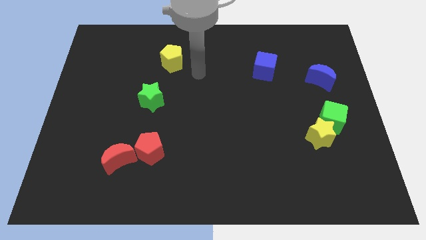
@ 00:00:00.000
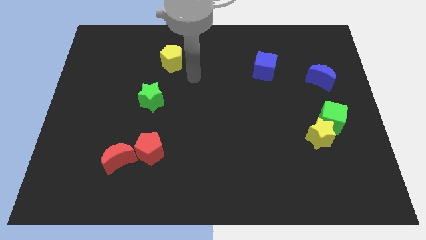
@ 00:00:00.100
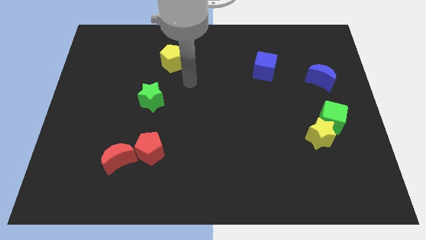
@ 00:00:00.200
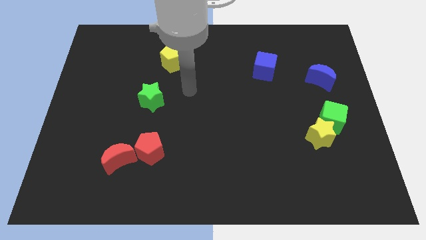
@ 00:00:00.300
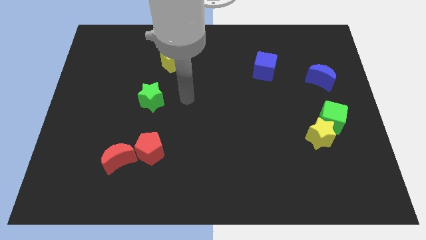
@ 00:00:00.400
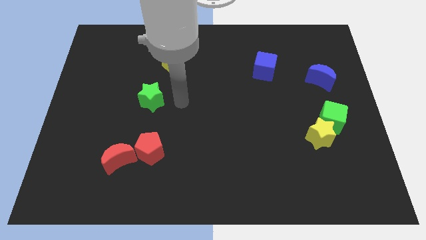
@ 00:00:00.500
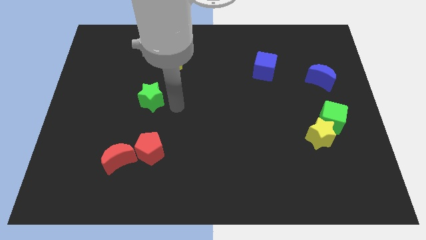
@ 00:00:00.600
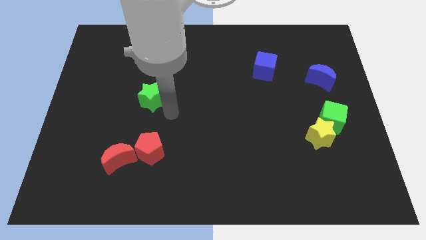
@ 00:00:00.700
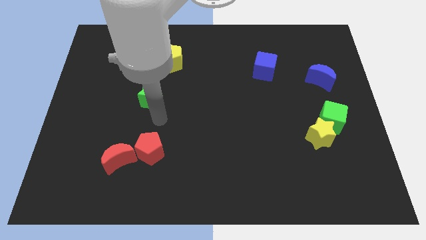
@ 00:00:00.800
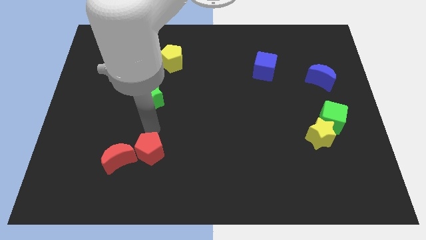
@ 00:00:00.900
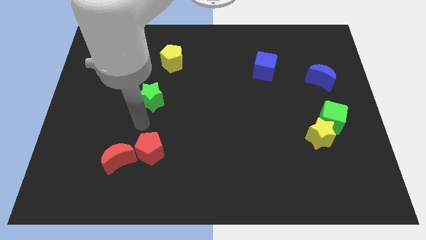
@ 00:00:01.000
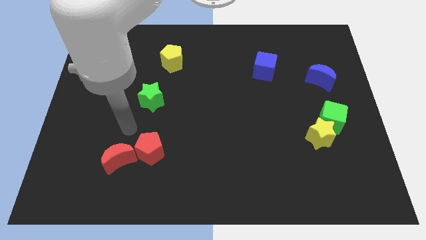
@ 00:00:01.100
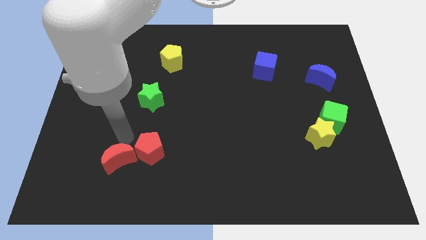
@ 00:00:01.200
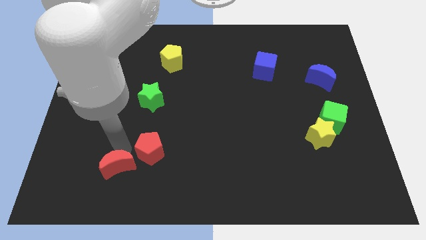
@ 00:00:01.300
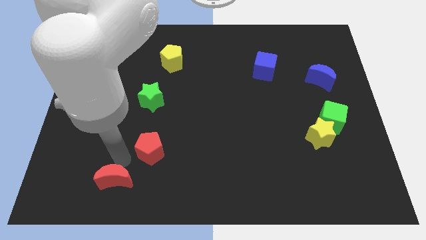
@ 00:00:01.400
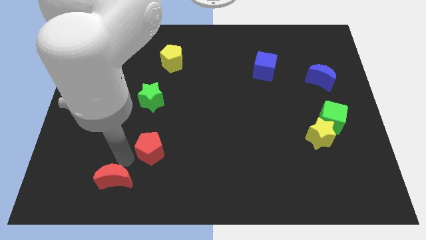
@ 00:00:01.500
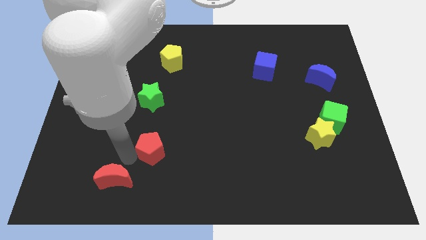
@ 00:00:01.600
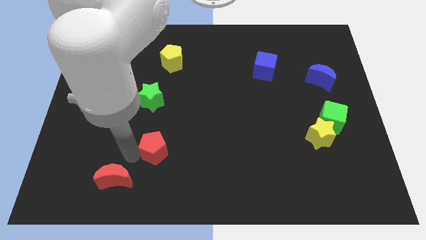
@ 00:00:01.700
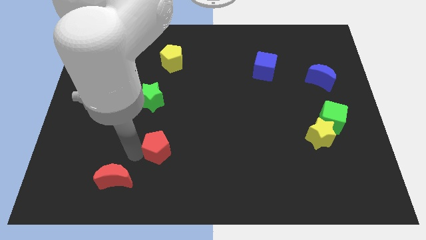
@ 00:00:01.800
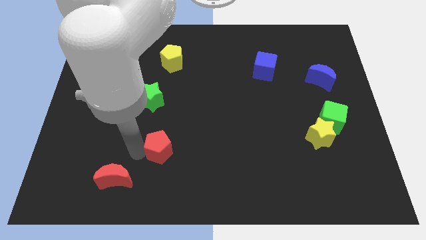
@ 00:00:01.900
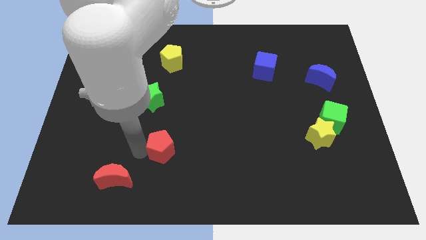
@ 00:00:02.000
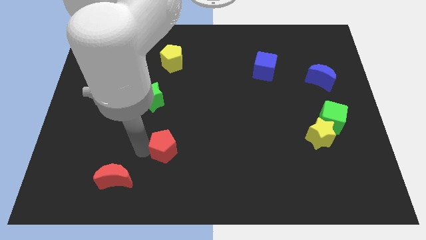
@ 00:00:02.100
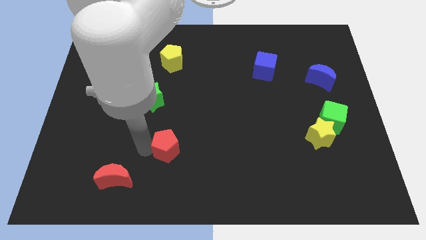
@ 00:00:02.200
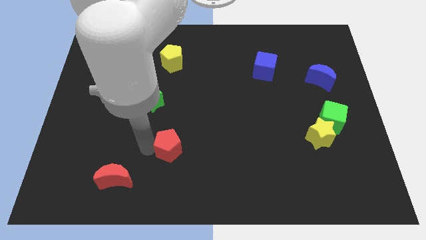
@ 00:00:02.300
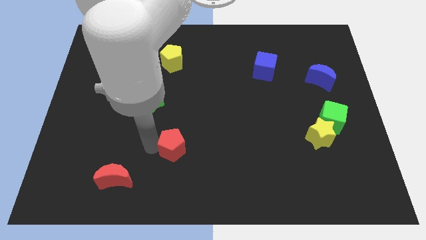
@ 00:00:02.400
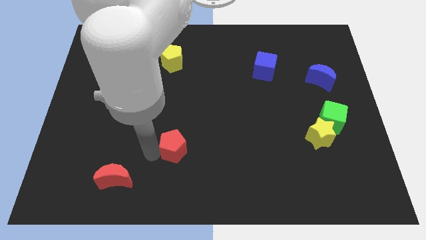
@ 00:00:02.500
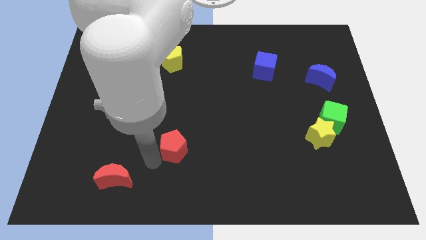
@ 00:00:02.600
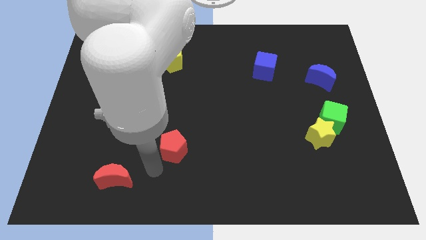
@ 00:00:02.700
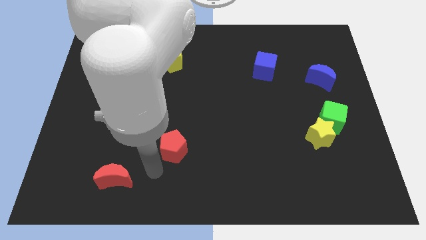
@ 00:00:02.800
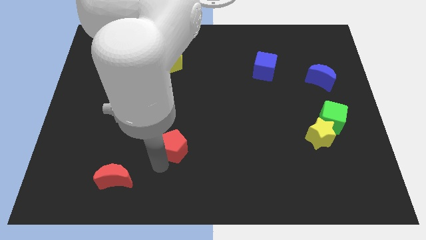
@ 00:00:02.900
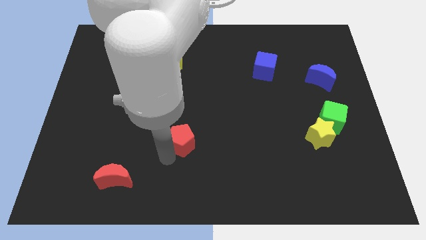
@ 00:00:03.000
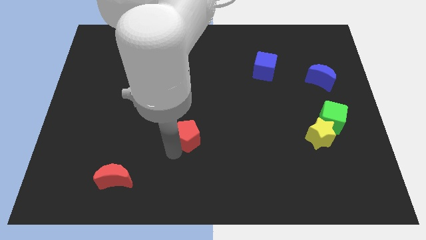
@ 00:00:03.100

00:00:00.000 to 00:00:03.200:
move the red pentagon diagonally upwards and to the right slightly

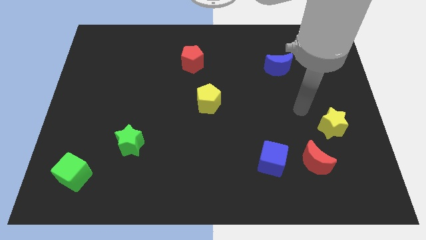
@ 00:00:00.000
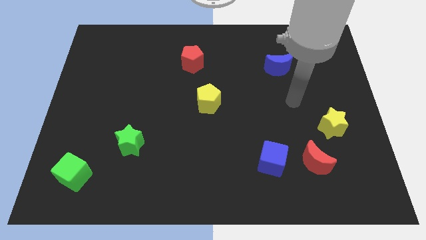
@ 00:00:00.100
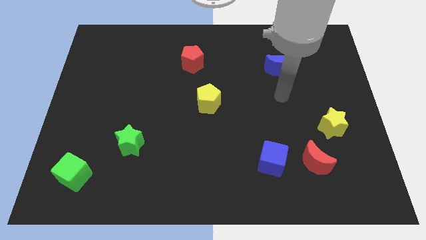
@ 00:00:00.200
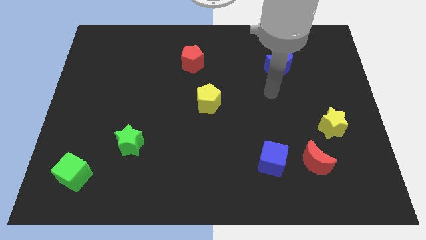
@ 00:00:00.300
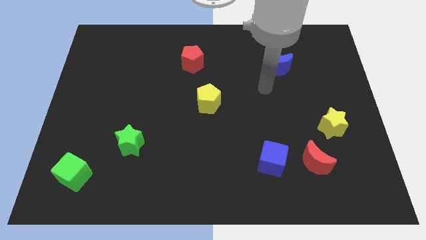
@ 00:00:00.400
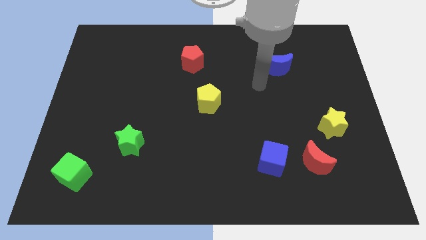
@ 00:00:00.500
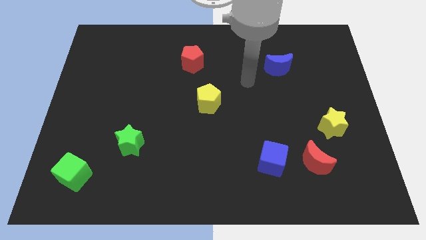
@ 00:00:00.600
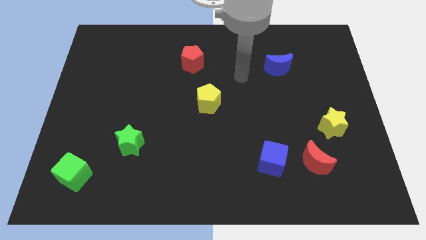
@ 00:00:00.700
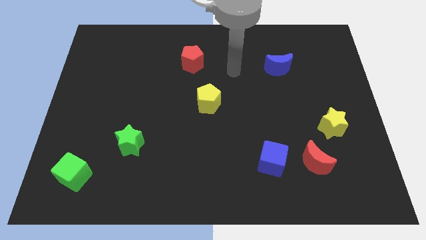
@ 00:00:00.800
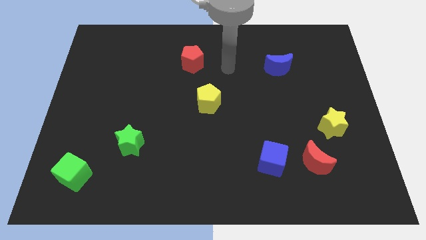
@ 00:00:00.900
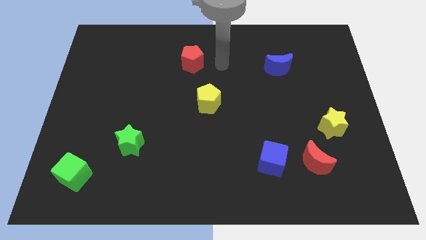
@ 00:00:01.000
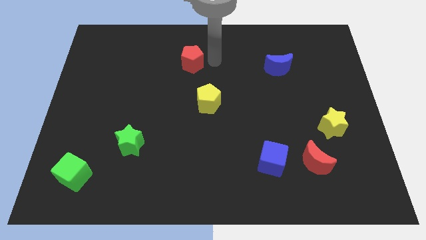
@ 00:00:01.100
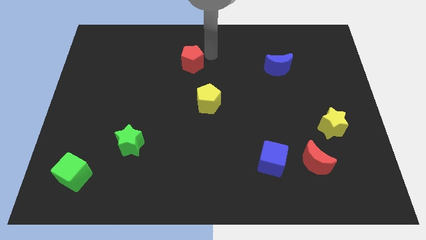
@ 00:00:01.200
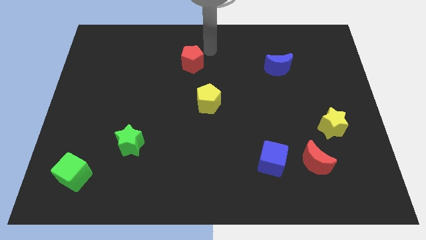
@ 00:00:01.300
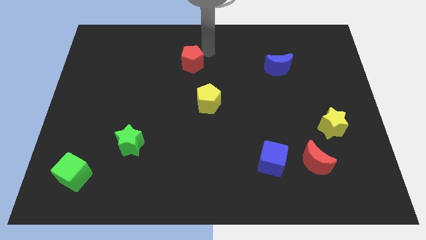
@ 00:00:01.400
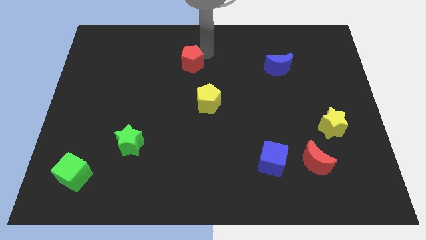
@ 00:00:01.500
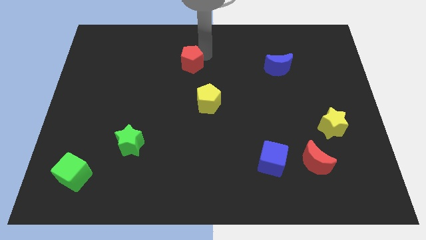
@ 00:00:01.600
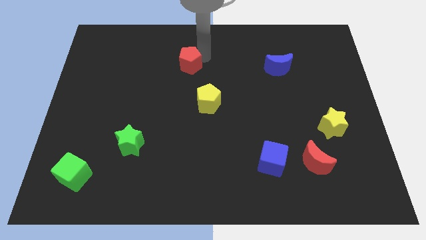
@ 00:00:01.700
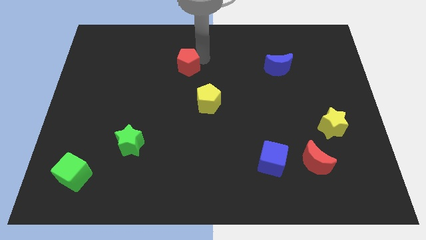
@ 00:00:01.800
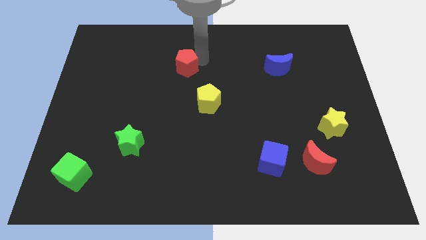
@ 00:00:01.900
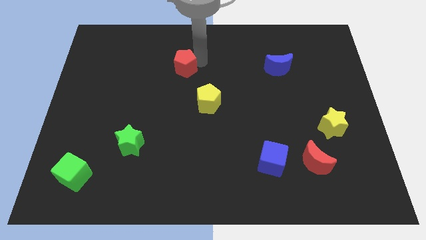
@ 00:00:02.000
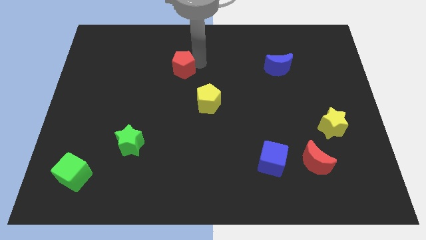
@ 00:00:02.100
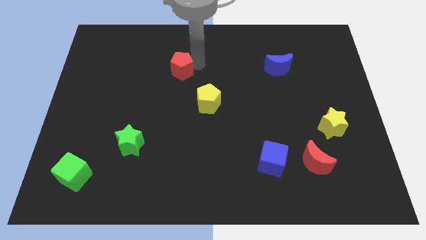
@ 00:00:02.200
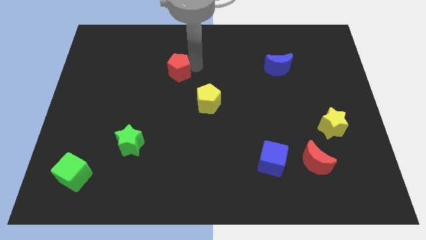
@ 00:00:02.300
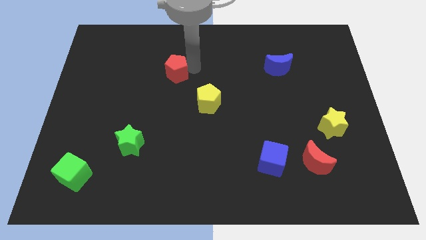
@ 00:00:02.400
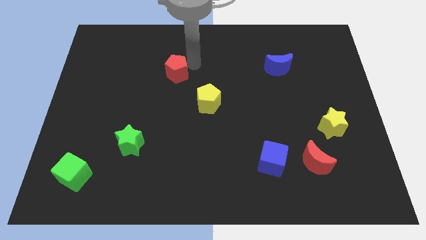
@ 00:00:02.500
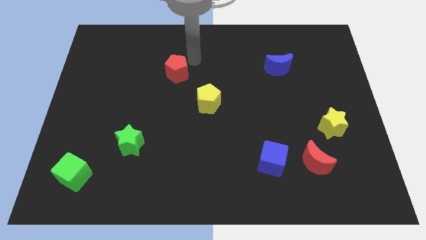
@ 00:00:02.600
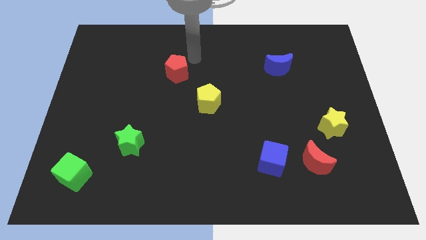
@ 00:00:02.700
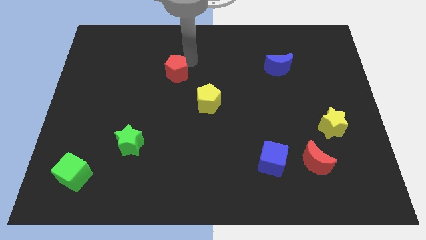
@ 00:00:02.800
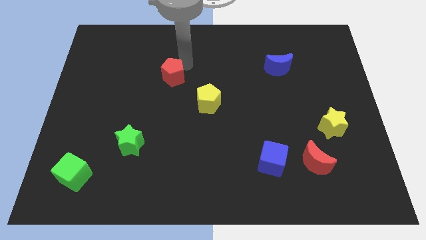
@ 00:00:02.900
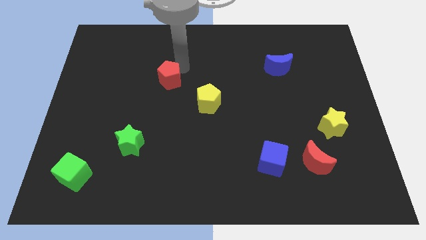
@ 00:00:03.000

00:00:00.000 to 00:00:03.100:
push the red pentagon down and then left a little

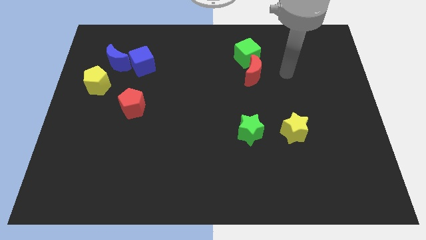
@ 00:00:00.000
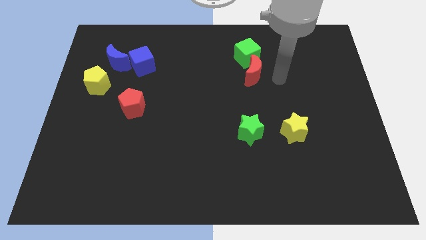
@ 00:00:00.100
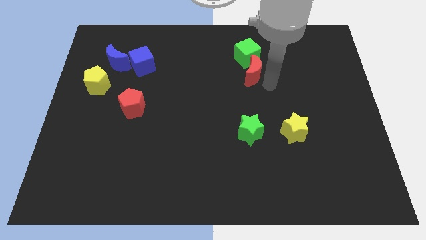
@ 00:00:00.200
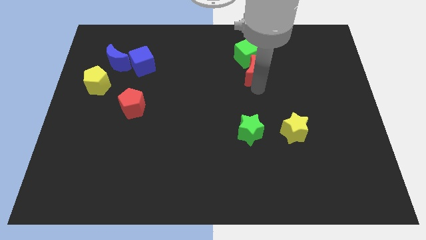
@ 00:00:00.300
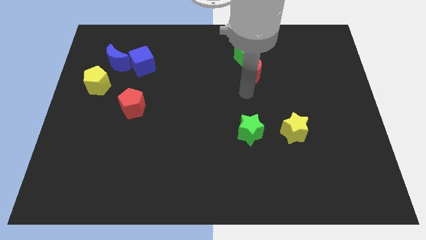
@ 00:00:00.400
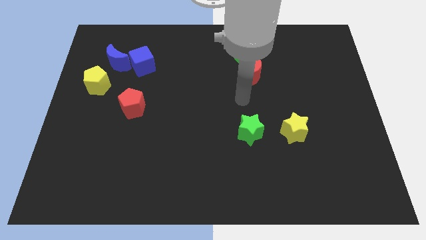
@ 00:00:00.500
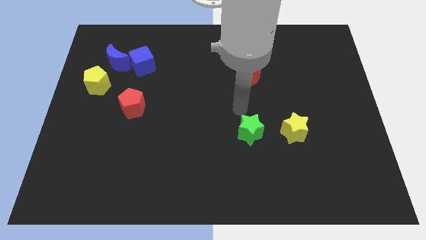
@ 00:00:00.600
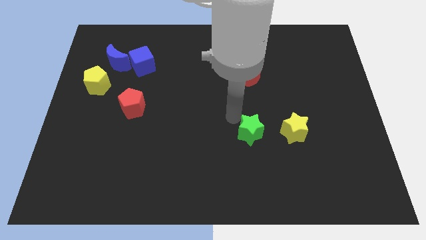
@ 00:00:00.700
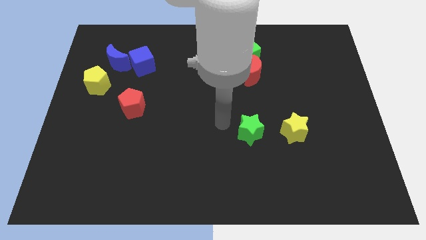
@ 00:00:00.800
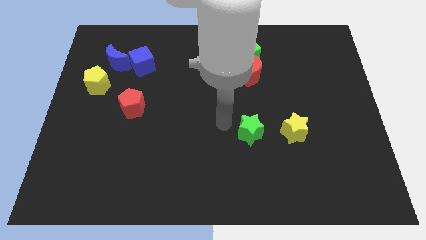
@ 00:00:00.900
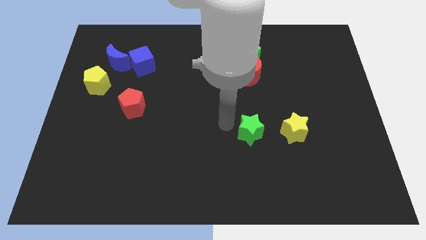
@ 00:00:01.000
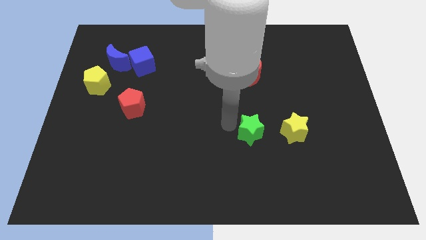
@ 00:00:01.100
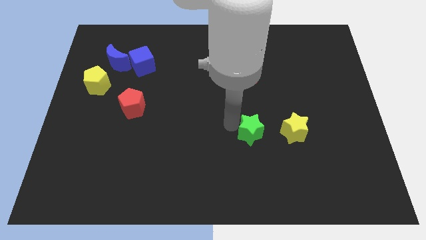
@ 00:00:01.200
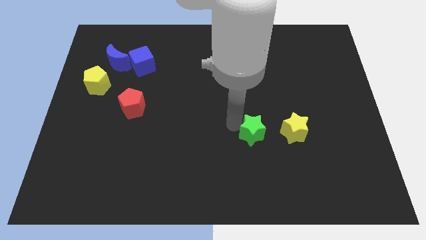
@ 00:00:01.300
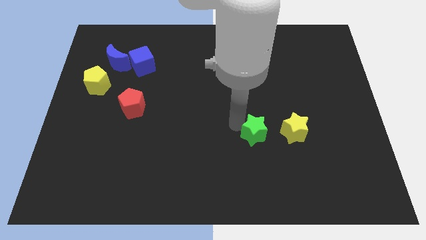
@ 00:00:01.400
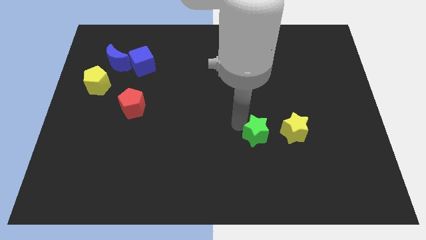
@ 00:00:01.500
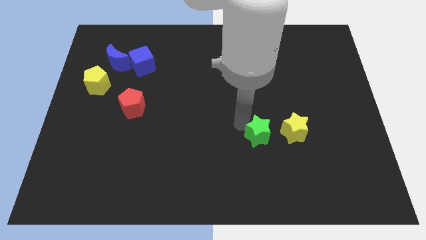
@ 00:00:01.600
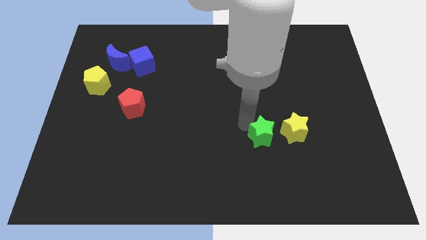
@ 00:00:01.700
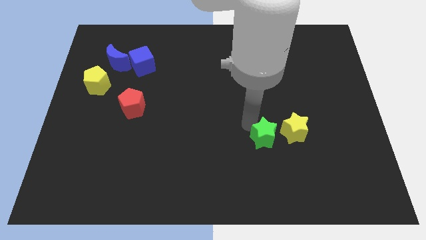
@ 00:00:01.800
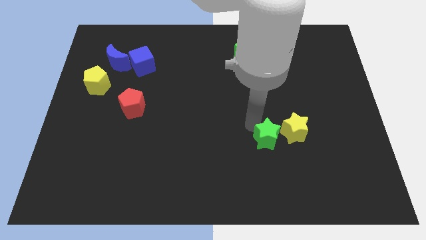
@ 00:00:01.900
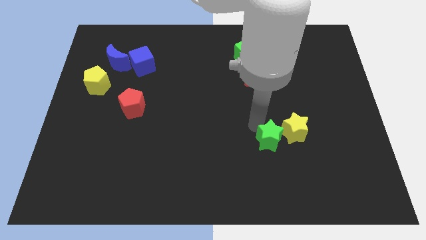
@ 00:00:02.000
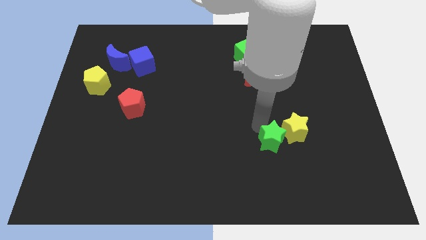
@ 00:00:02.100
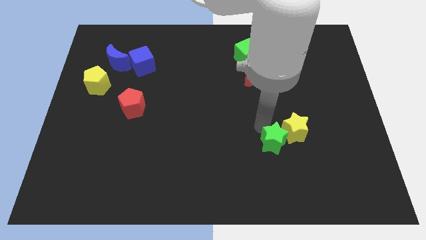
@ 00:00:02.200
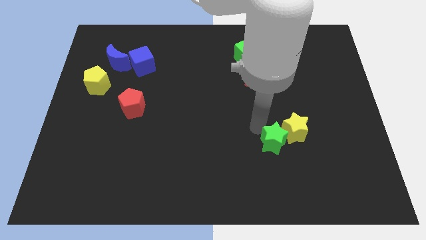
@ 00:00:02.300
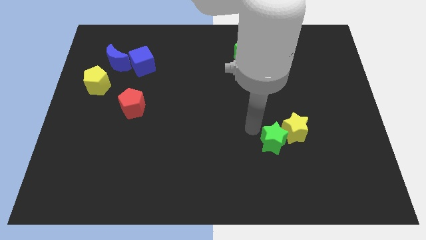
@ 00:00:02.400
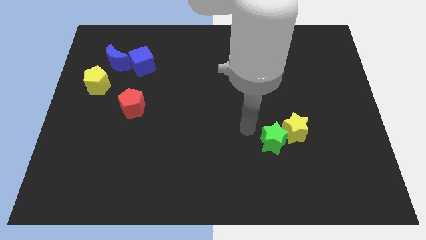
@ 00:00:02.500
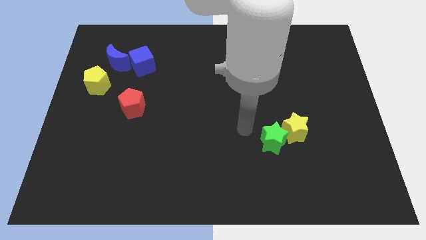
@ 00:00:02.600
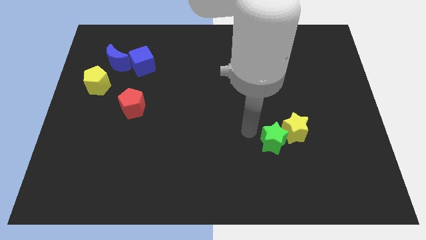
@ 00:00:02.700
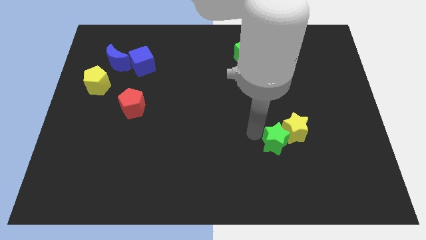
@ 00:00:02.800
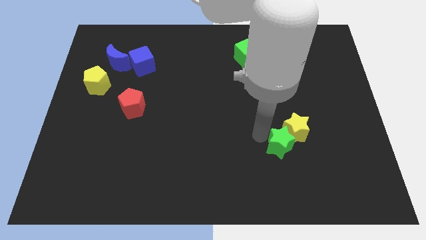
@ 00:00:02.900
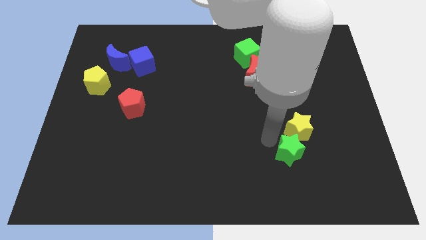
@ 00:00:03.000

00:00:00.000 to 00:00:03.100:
push the green star to the right a little
